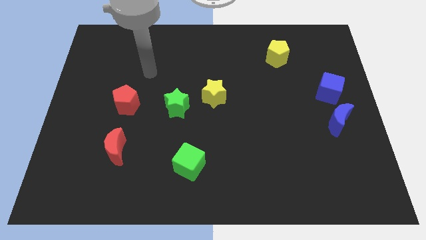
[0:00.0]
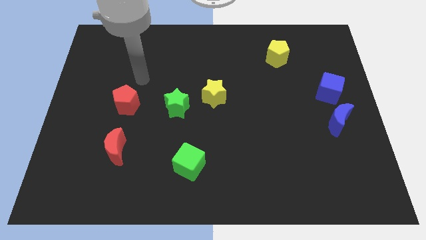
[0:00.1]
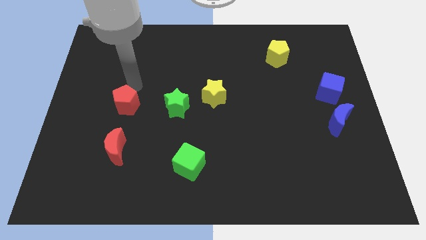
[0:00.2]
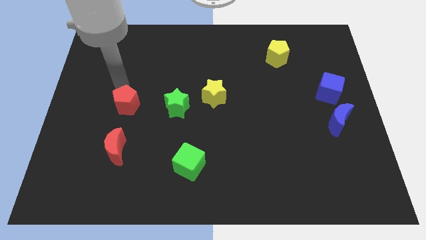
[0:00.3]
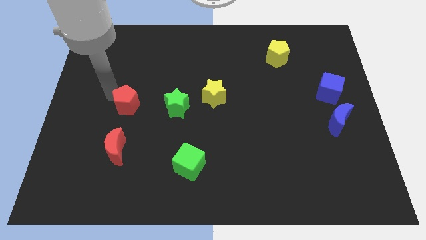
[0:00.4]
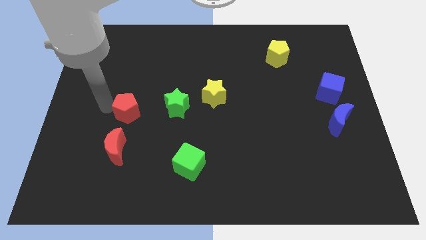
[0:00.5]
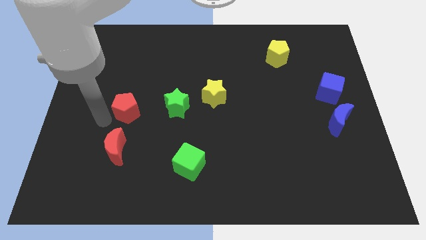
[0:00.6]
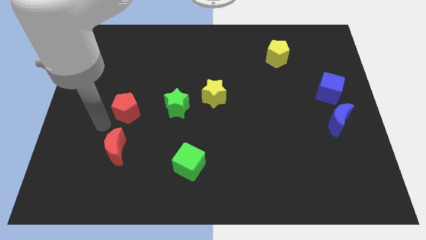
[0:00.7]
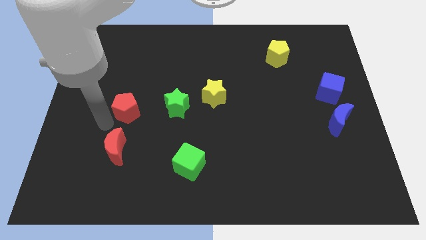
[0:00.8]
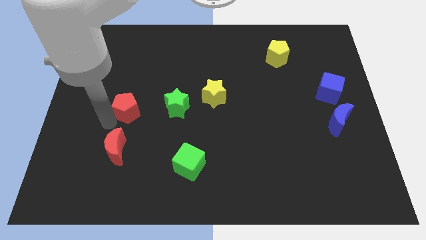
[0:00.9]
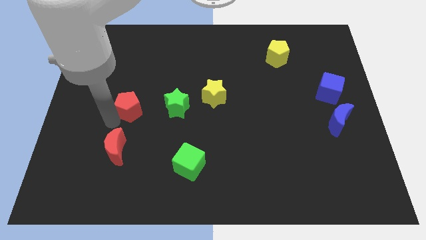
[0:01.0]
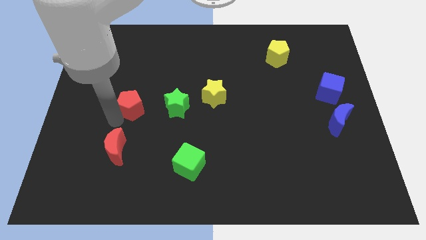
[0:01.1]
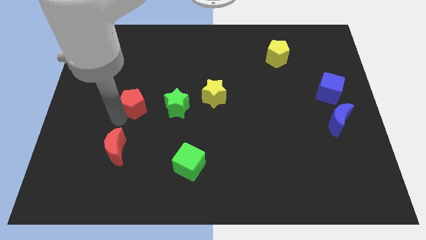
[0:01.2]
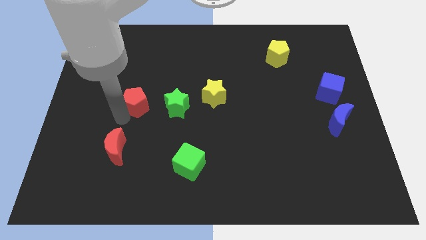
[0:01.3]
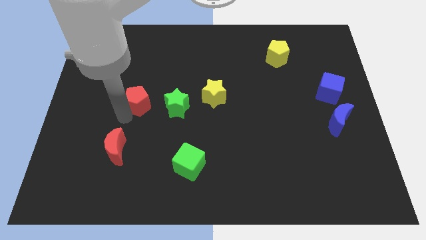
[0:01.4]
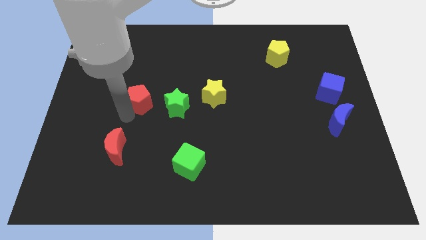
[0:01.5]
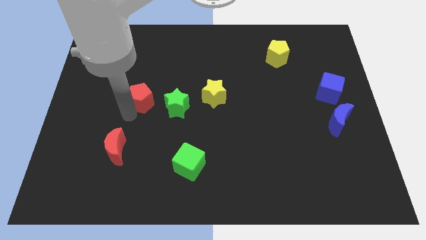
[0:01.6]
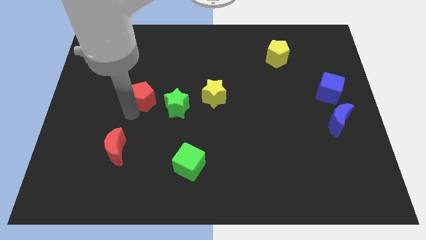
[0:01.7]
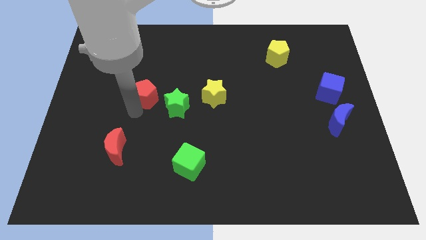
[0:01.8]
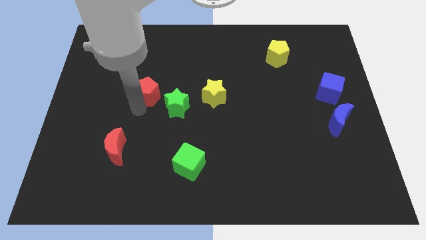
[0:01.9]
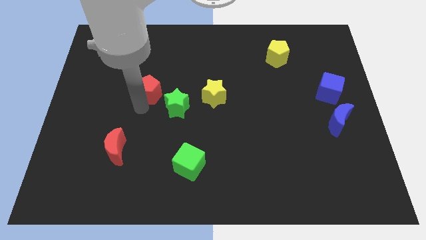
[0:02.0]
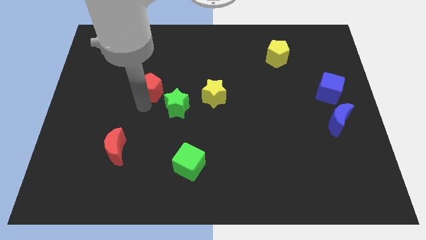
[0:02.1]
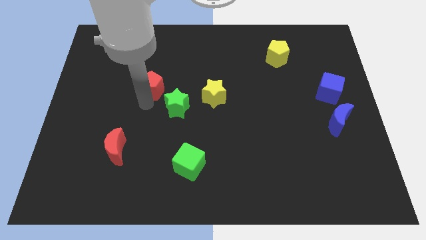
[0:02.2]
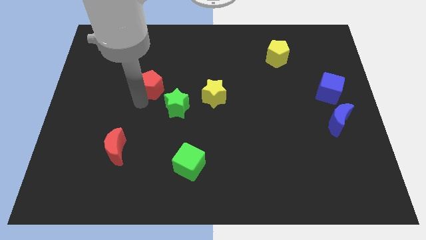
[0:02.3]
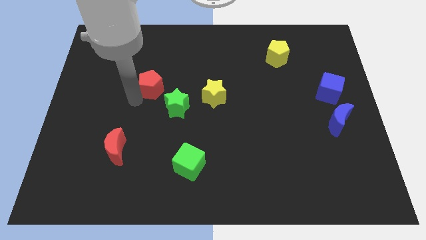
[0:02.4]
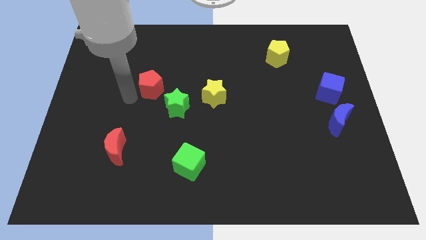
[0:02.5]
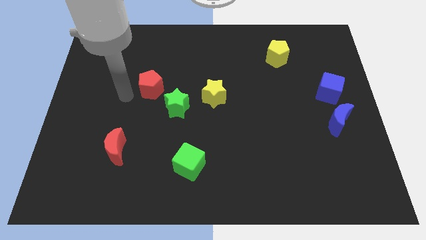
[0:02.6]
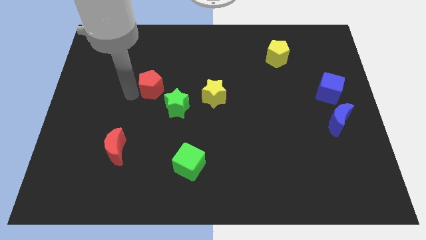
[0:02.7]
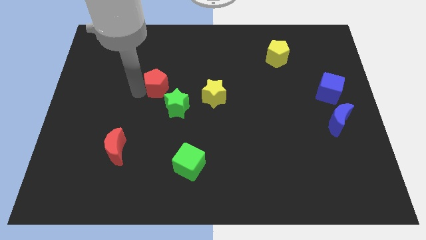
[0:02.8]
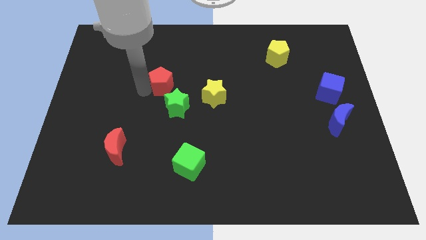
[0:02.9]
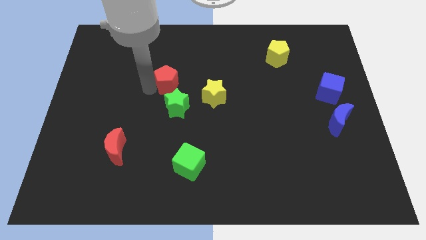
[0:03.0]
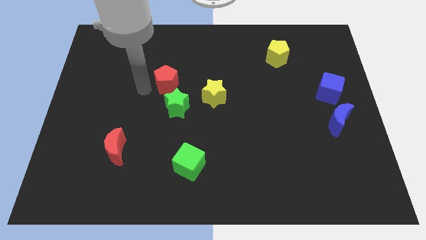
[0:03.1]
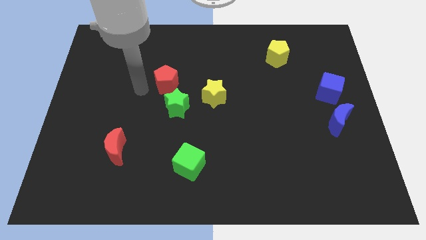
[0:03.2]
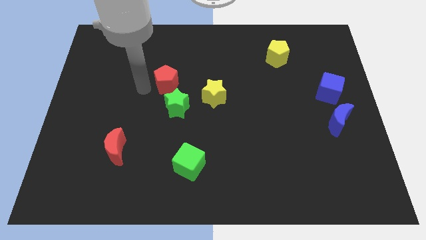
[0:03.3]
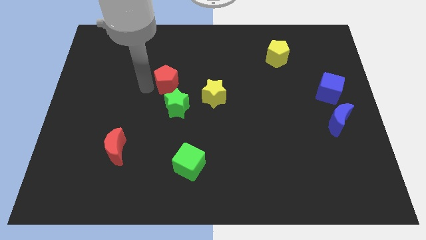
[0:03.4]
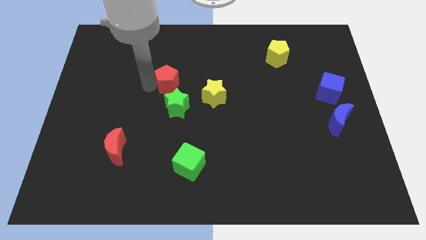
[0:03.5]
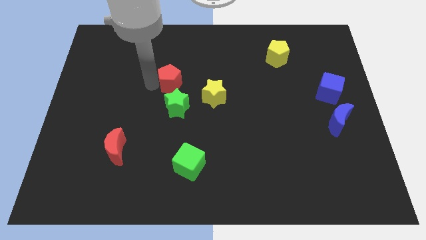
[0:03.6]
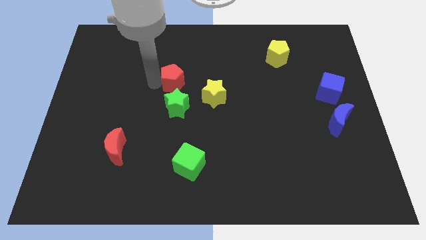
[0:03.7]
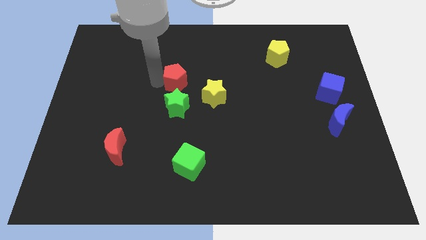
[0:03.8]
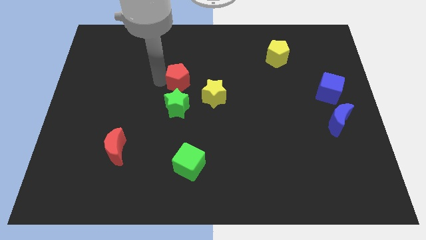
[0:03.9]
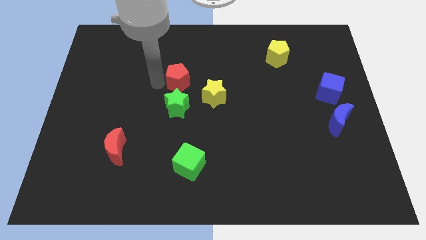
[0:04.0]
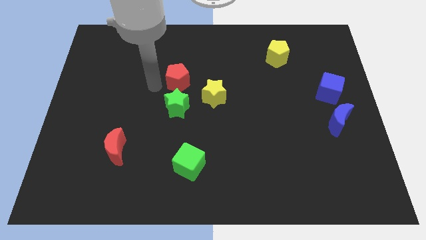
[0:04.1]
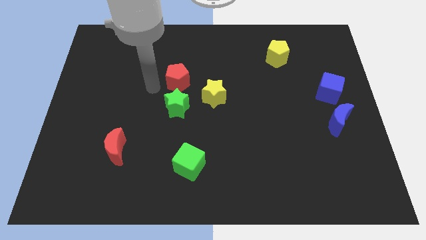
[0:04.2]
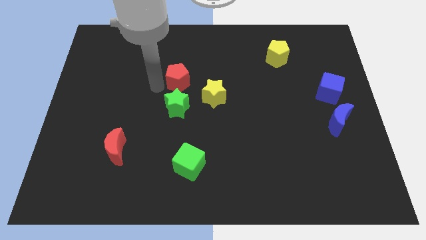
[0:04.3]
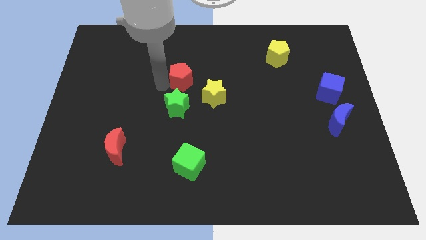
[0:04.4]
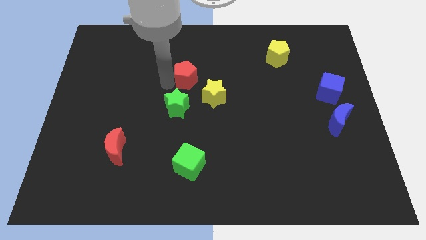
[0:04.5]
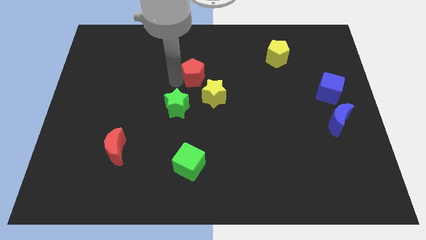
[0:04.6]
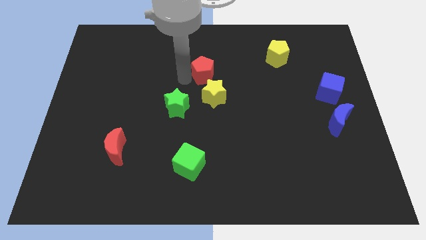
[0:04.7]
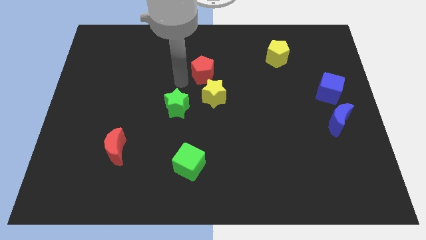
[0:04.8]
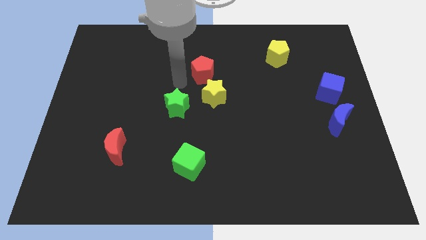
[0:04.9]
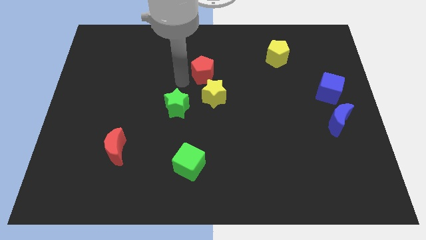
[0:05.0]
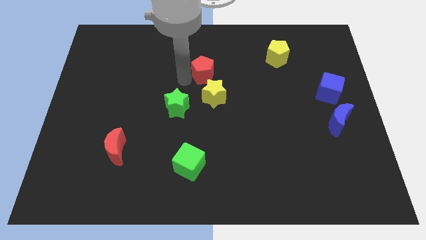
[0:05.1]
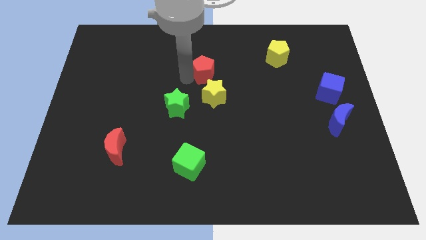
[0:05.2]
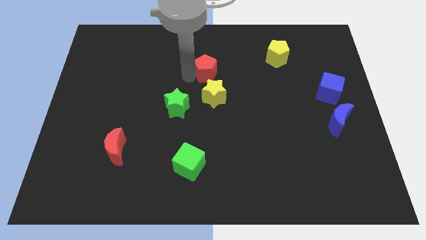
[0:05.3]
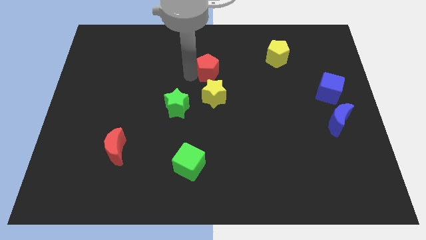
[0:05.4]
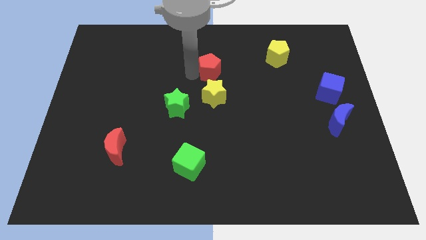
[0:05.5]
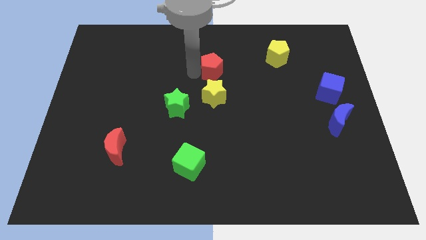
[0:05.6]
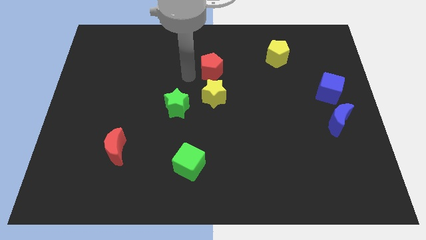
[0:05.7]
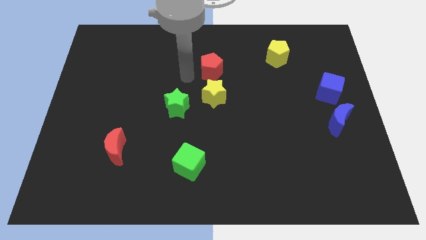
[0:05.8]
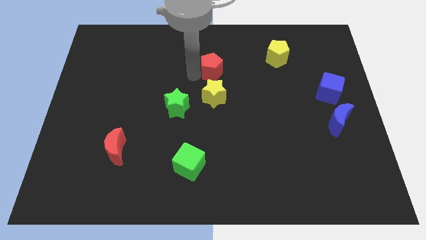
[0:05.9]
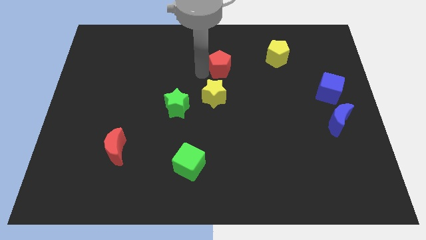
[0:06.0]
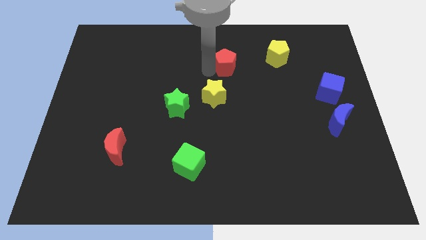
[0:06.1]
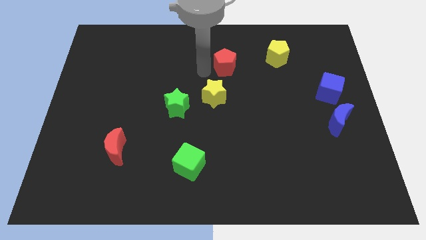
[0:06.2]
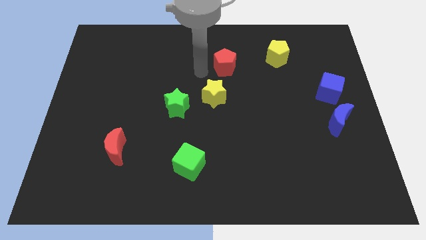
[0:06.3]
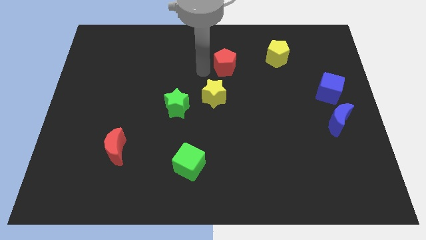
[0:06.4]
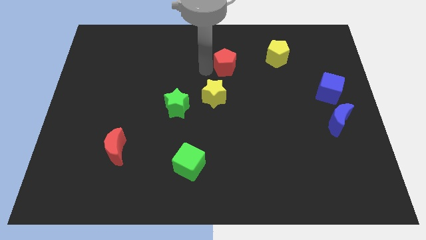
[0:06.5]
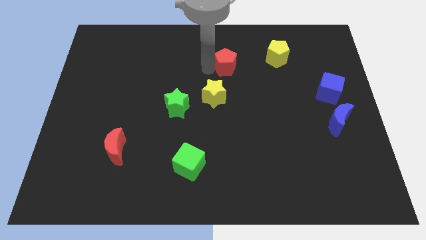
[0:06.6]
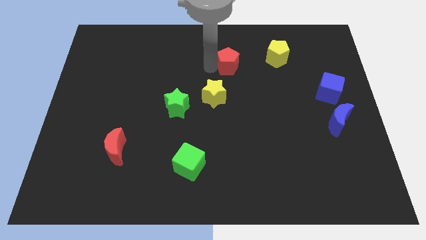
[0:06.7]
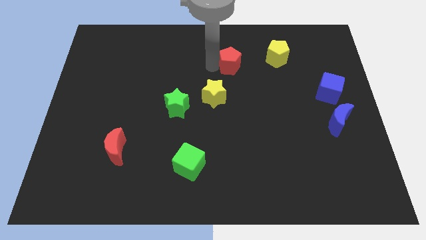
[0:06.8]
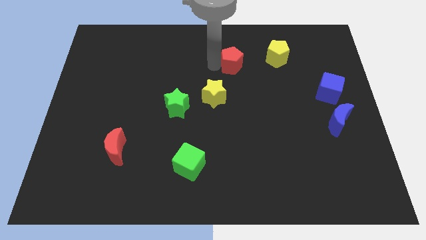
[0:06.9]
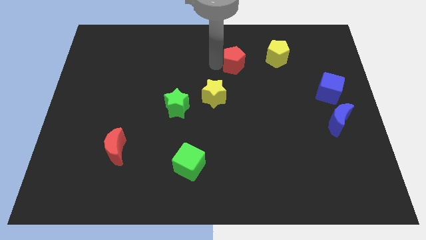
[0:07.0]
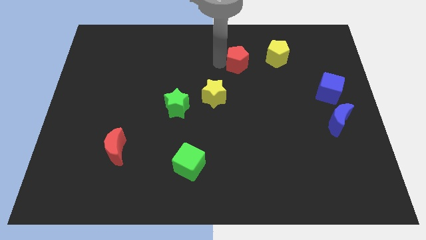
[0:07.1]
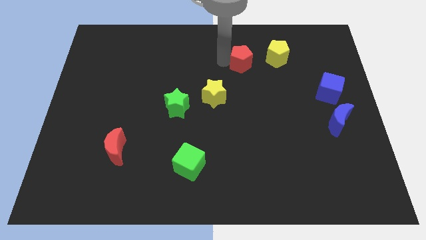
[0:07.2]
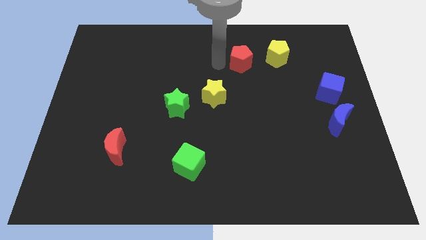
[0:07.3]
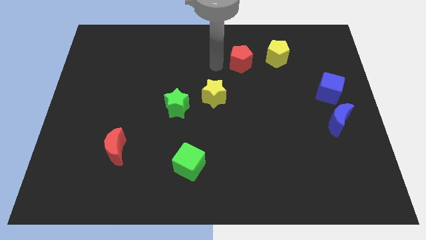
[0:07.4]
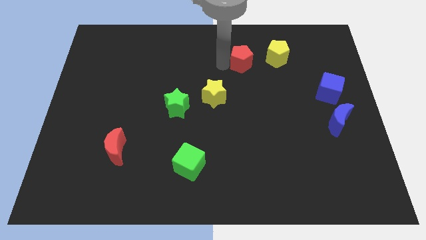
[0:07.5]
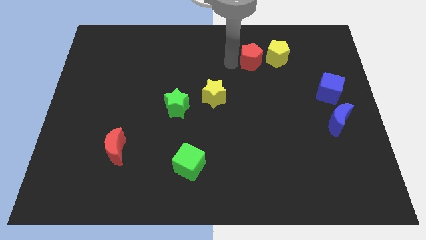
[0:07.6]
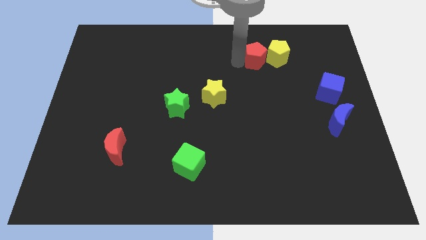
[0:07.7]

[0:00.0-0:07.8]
push the red pentagon towards the yellow pentagon
